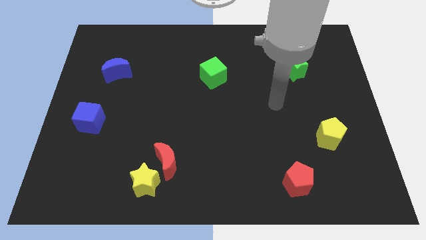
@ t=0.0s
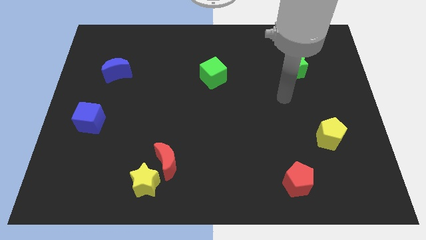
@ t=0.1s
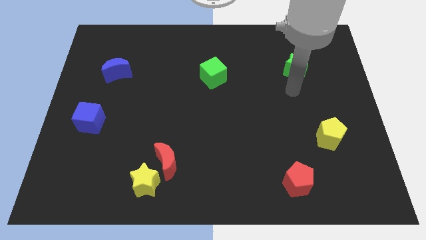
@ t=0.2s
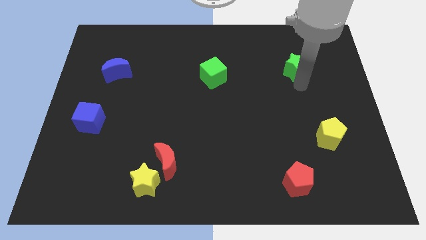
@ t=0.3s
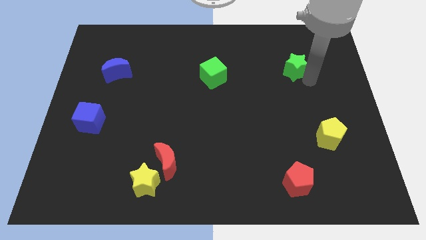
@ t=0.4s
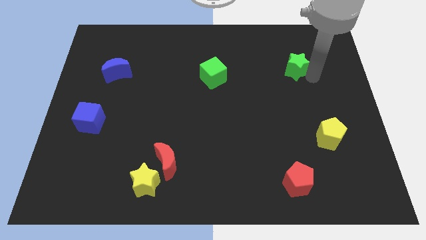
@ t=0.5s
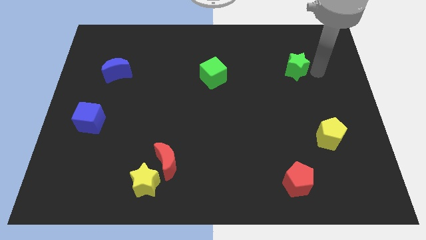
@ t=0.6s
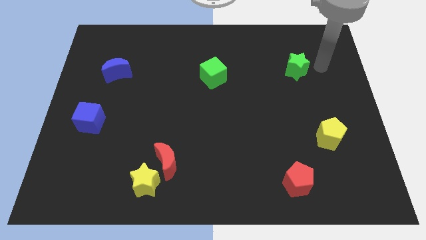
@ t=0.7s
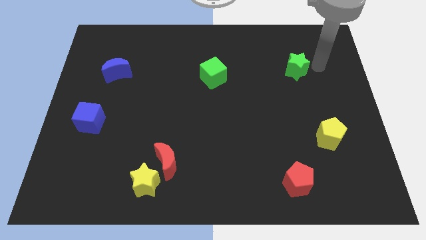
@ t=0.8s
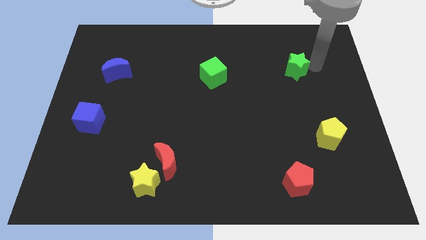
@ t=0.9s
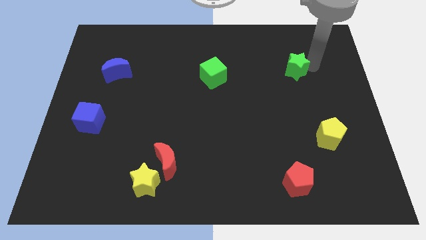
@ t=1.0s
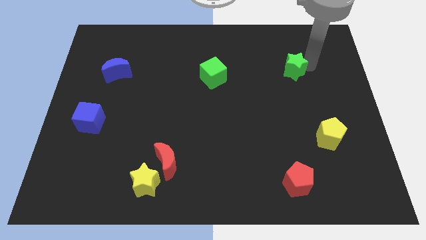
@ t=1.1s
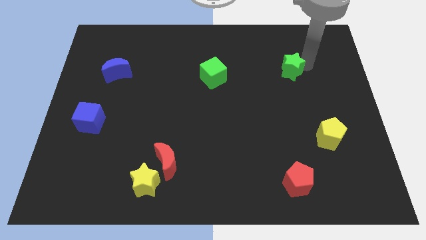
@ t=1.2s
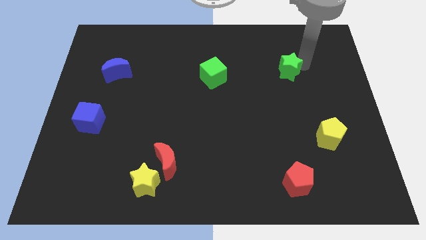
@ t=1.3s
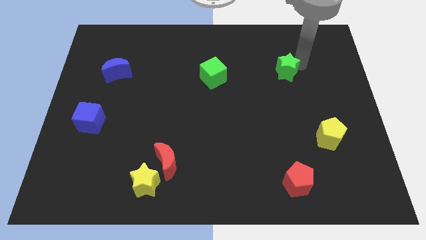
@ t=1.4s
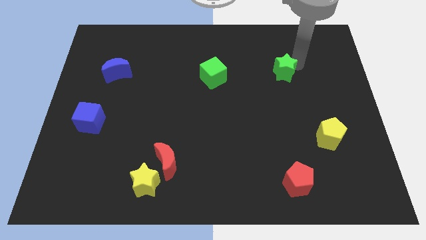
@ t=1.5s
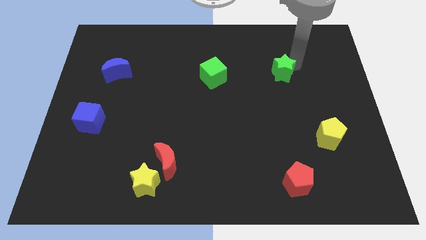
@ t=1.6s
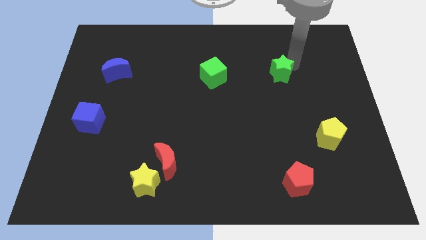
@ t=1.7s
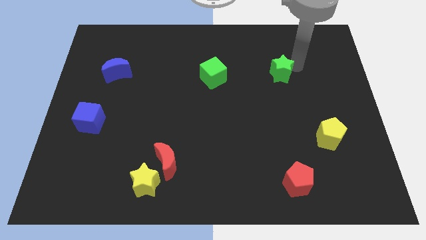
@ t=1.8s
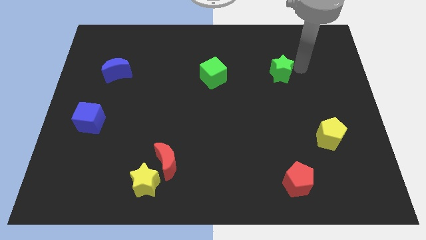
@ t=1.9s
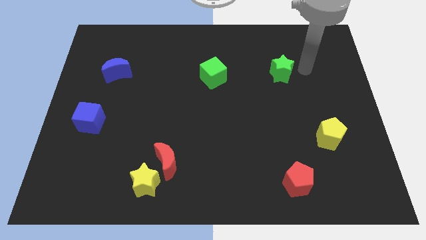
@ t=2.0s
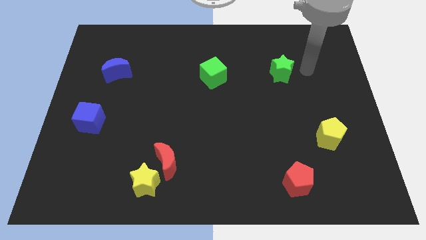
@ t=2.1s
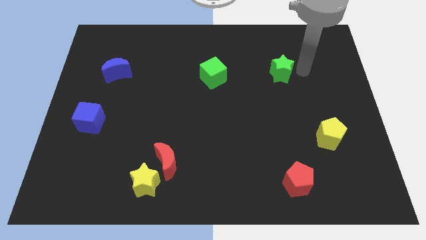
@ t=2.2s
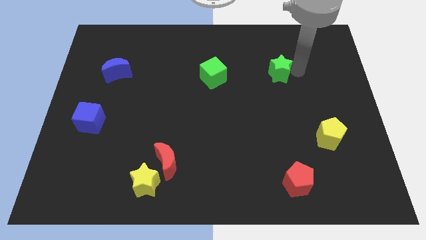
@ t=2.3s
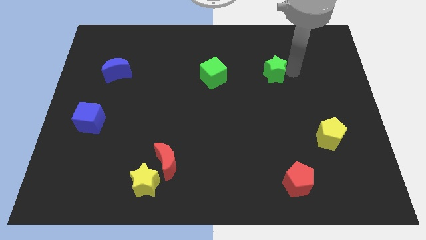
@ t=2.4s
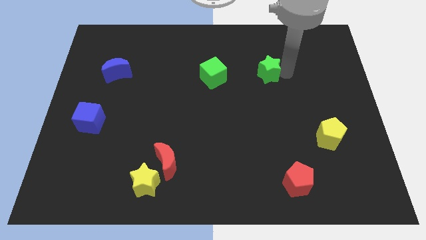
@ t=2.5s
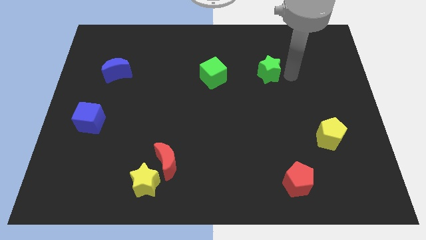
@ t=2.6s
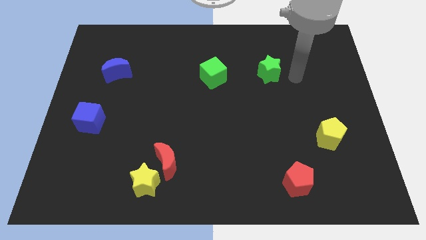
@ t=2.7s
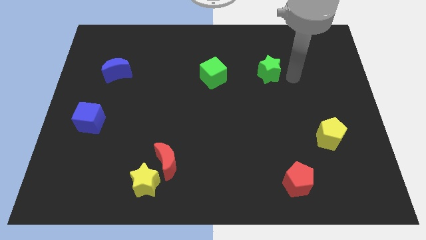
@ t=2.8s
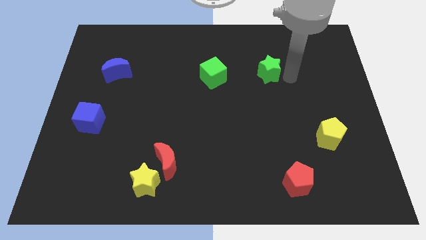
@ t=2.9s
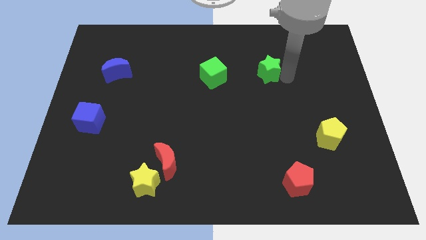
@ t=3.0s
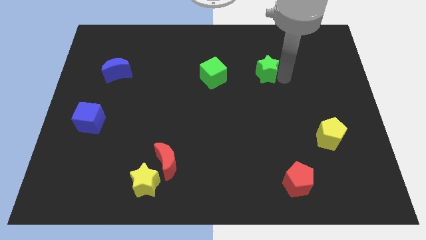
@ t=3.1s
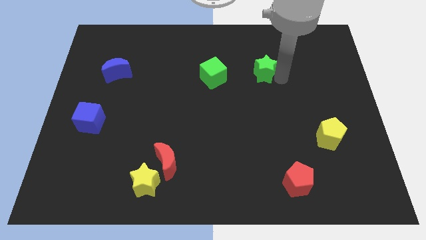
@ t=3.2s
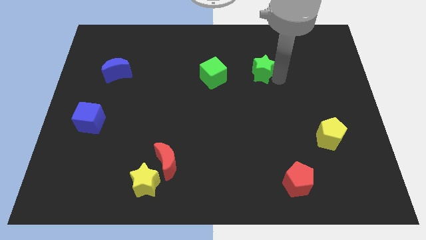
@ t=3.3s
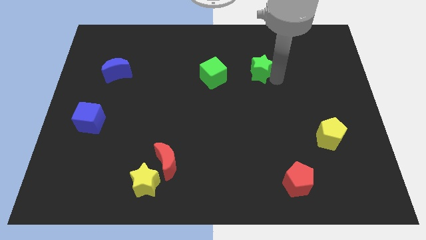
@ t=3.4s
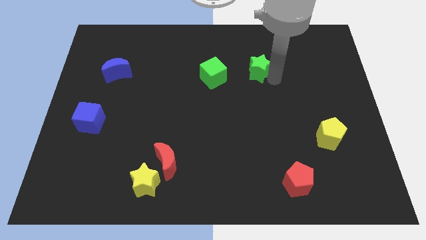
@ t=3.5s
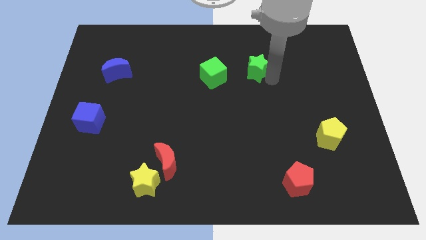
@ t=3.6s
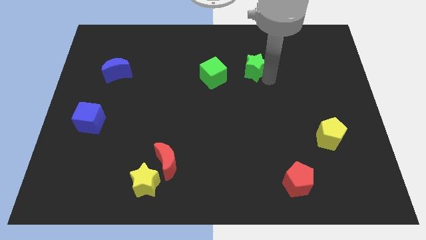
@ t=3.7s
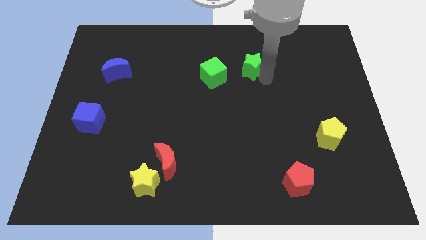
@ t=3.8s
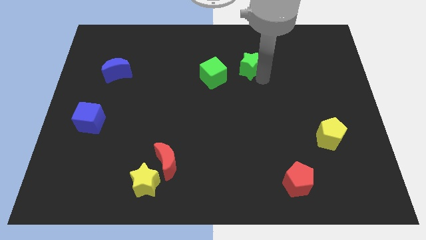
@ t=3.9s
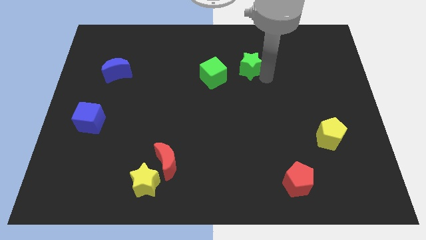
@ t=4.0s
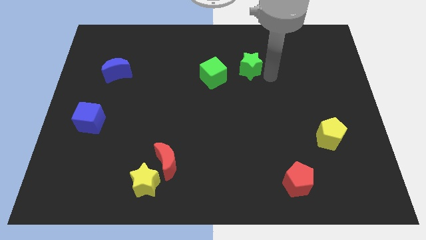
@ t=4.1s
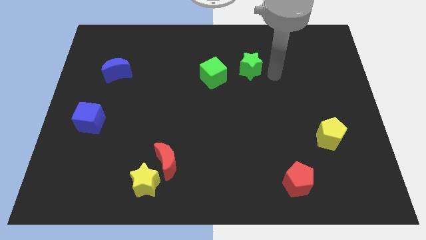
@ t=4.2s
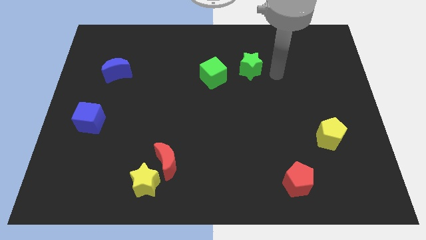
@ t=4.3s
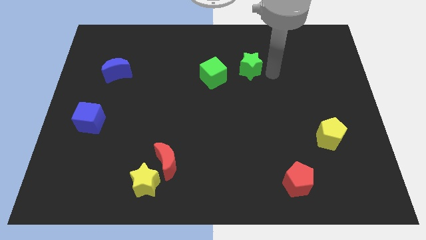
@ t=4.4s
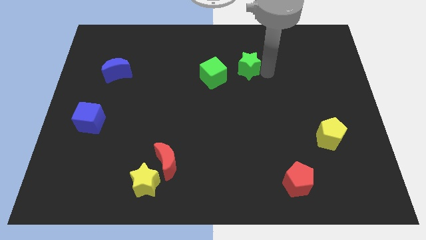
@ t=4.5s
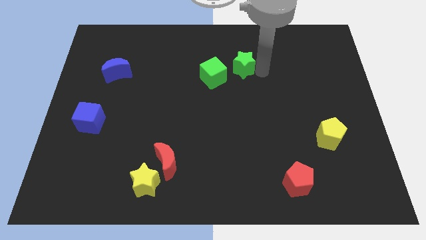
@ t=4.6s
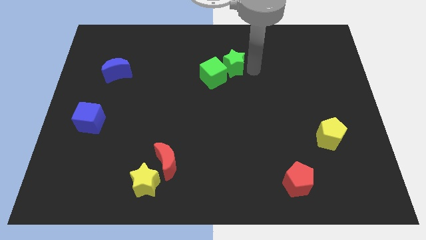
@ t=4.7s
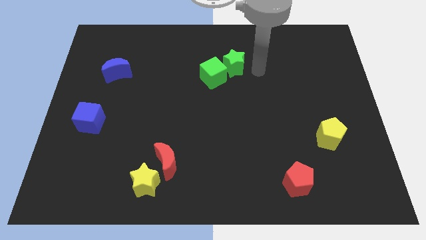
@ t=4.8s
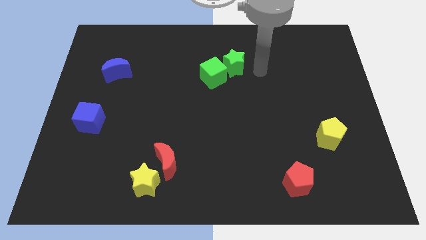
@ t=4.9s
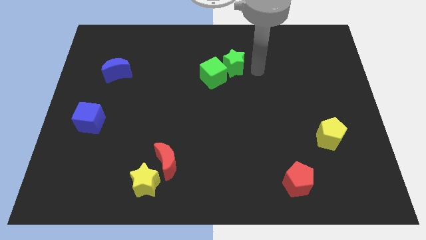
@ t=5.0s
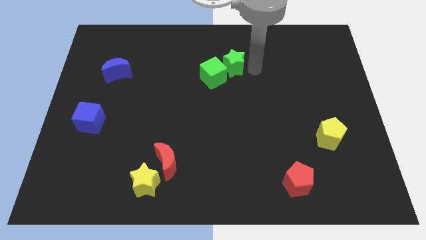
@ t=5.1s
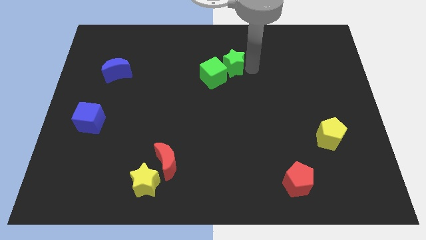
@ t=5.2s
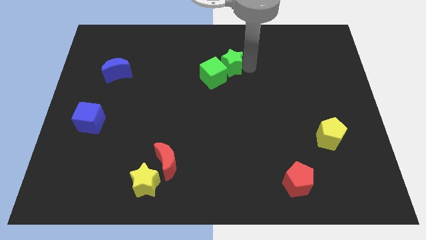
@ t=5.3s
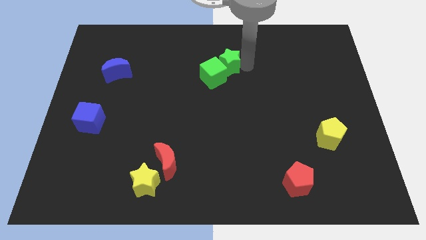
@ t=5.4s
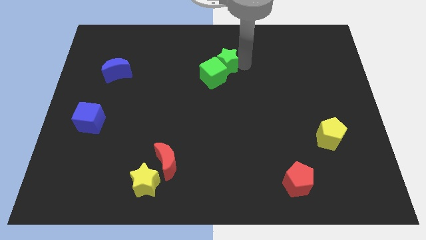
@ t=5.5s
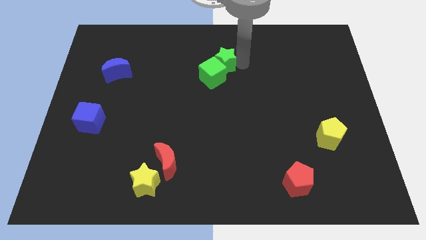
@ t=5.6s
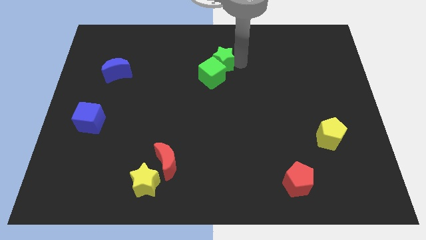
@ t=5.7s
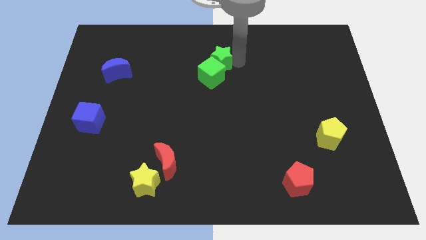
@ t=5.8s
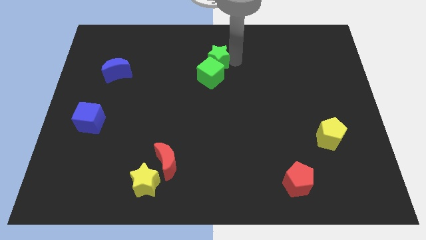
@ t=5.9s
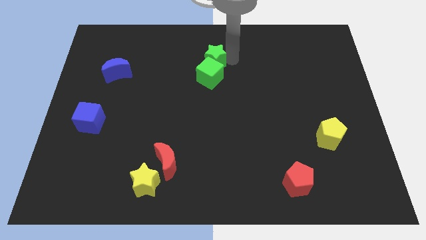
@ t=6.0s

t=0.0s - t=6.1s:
slide the green star to the left

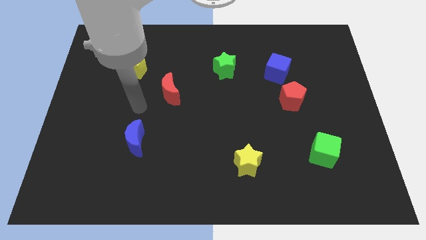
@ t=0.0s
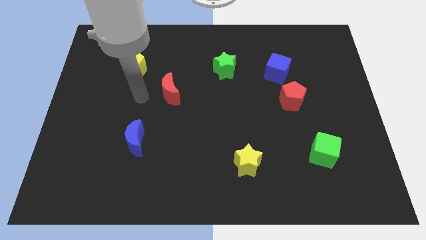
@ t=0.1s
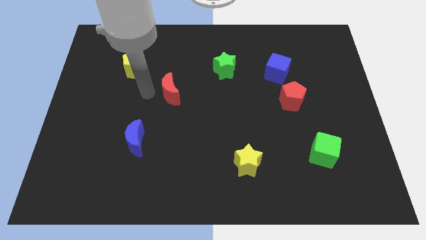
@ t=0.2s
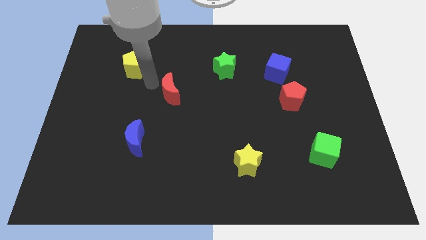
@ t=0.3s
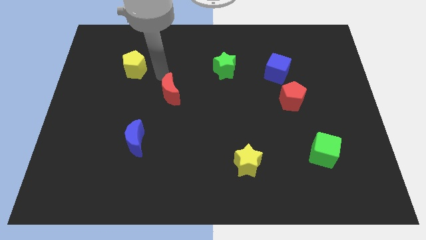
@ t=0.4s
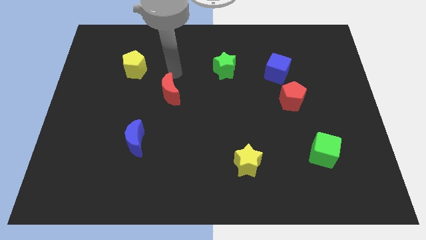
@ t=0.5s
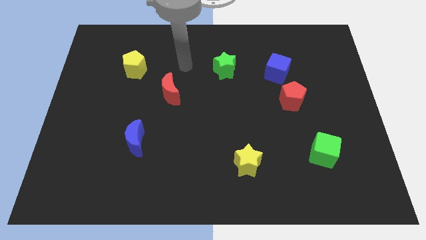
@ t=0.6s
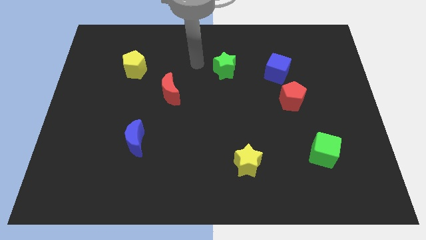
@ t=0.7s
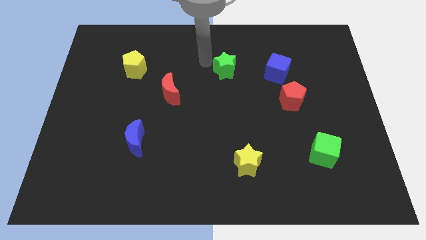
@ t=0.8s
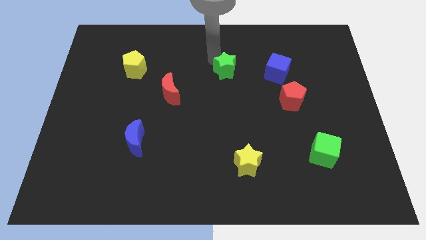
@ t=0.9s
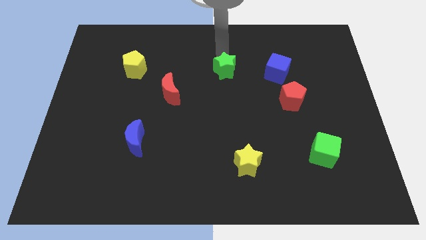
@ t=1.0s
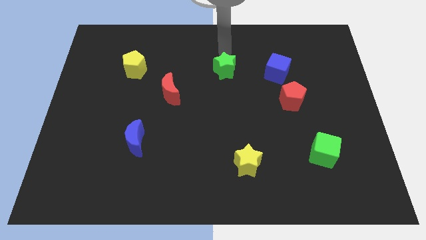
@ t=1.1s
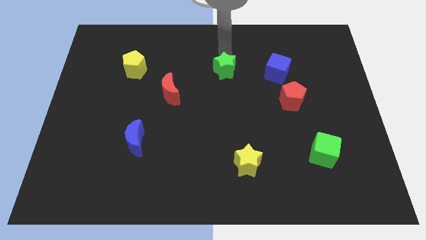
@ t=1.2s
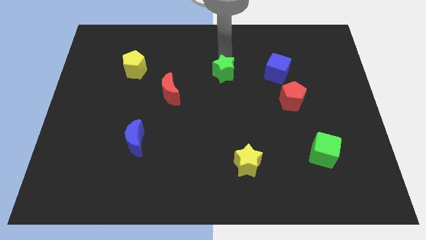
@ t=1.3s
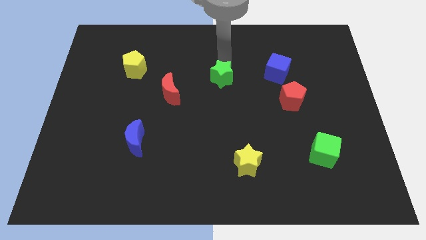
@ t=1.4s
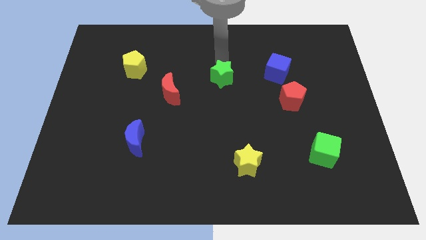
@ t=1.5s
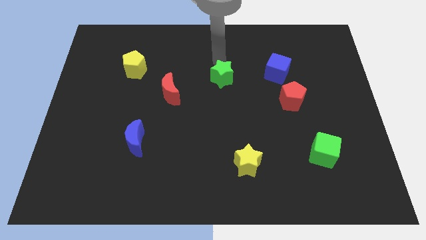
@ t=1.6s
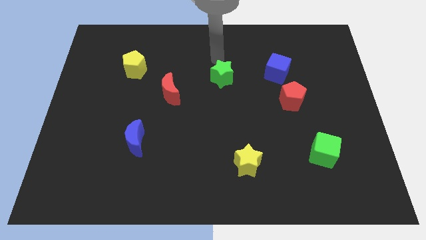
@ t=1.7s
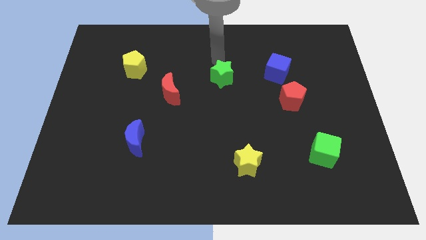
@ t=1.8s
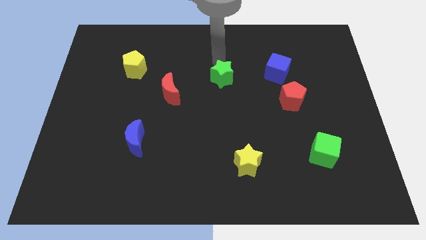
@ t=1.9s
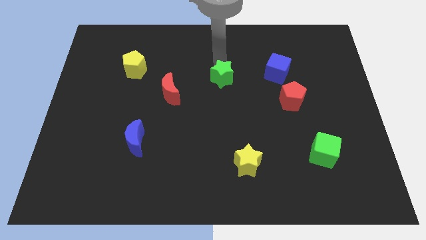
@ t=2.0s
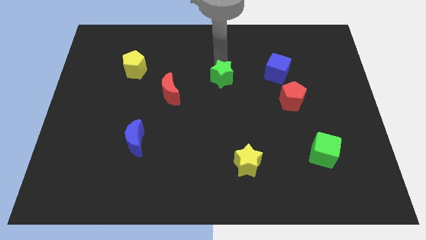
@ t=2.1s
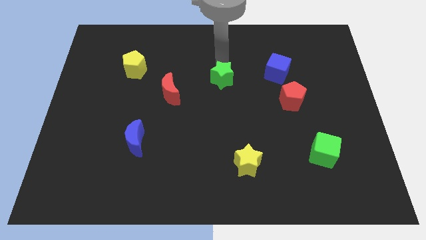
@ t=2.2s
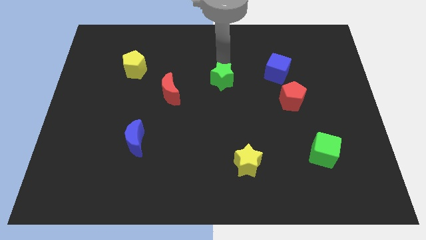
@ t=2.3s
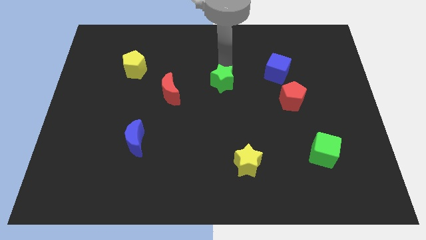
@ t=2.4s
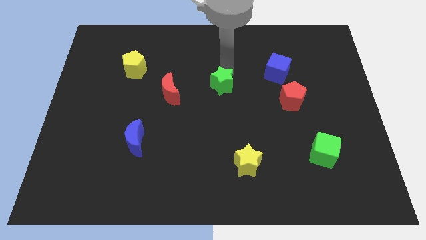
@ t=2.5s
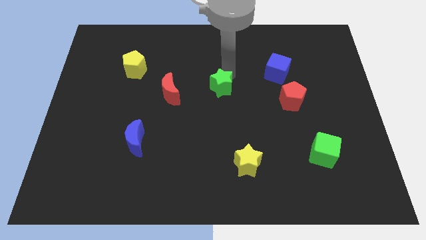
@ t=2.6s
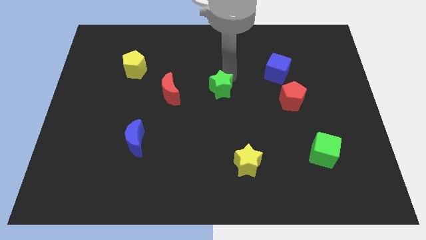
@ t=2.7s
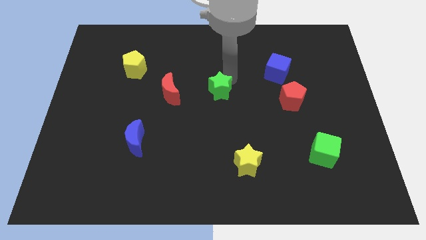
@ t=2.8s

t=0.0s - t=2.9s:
push the green star down a bit
